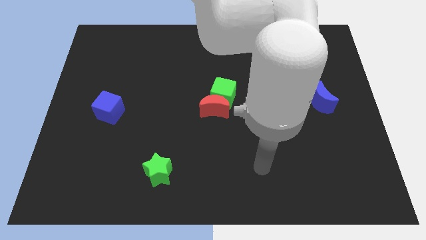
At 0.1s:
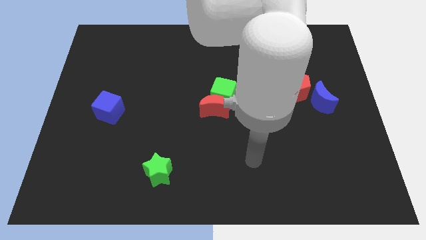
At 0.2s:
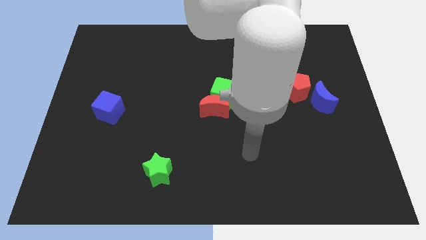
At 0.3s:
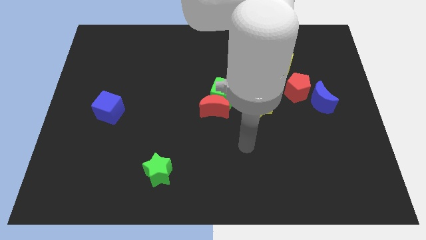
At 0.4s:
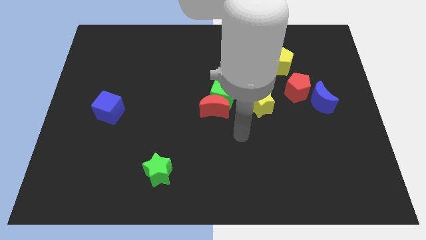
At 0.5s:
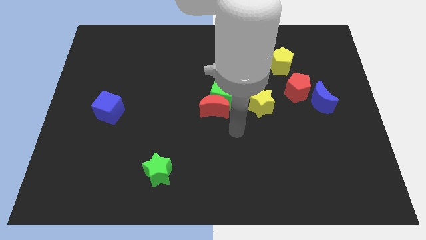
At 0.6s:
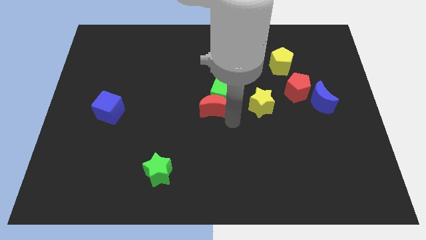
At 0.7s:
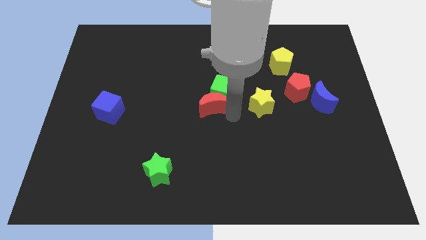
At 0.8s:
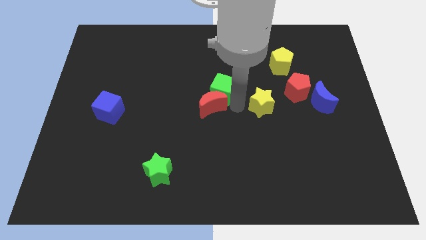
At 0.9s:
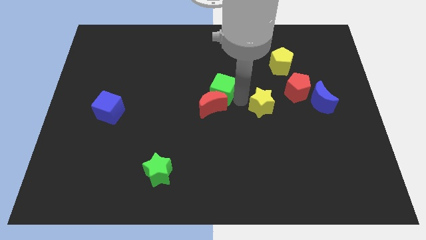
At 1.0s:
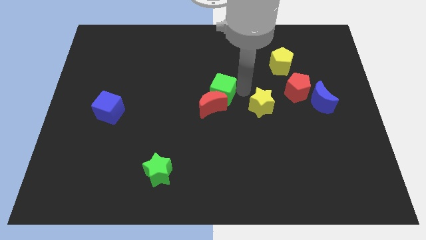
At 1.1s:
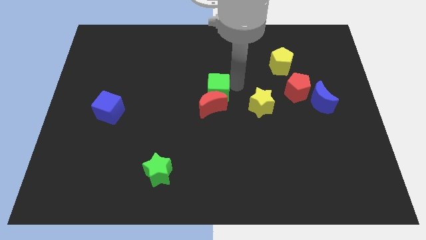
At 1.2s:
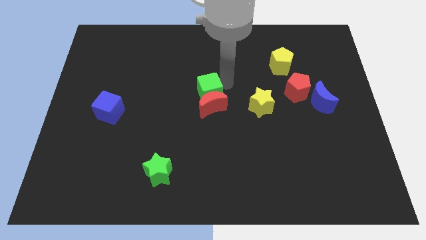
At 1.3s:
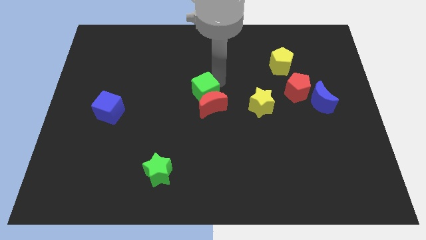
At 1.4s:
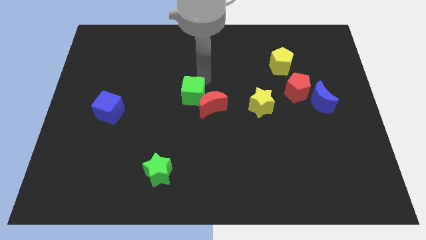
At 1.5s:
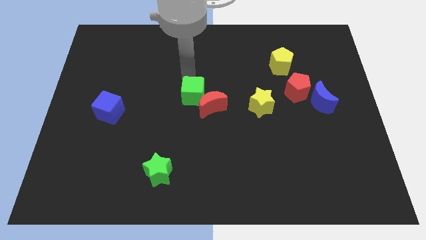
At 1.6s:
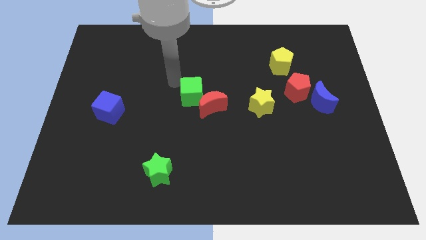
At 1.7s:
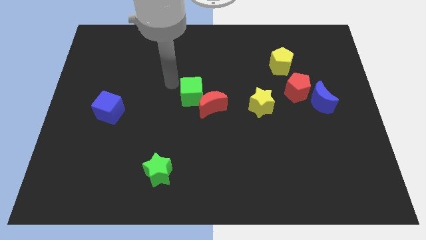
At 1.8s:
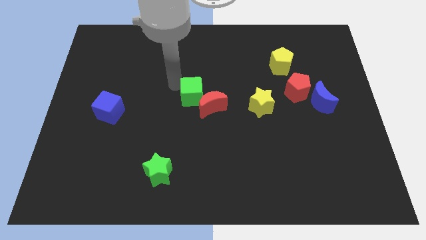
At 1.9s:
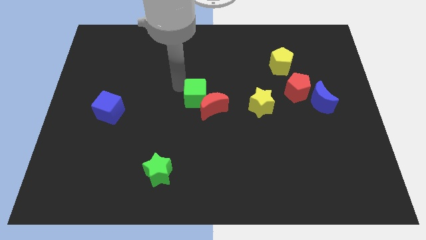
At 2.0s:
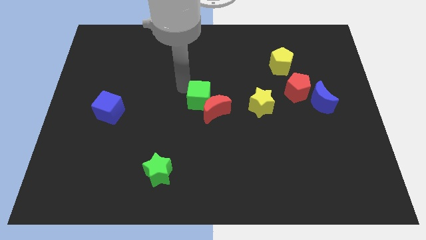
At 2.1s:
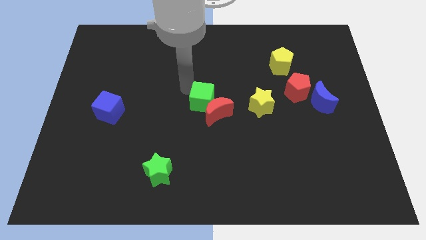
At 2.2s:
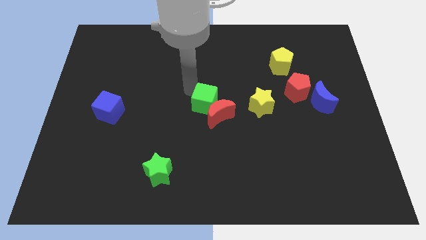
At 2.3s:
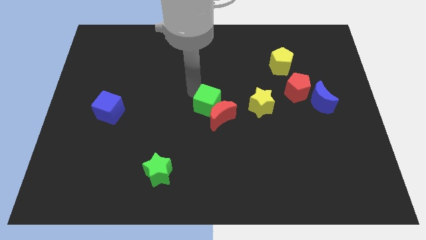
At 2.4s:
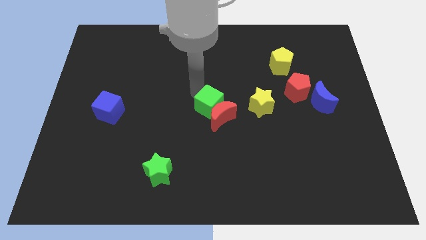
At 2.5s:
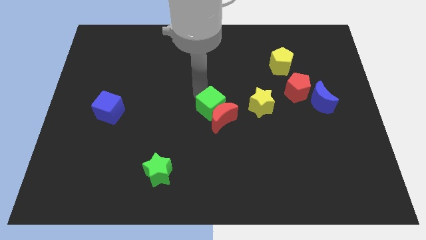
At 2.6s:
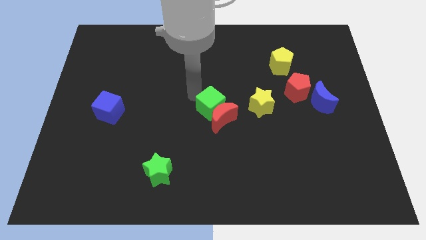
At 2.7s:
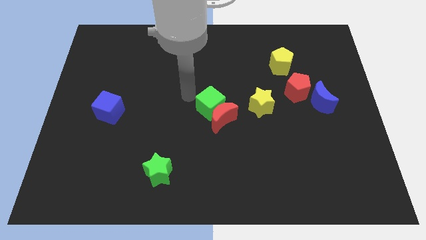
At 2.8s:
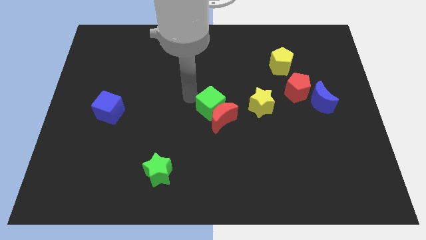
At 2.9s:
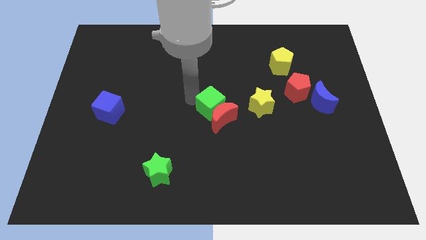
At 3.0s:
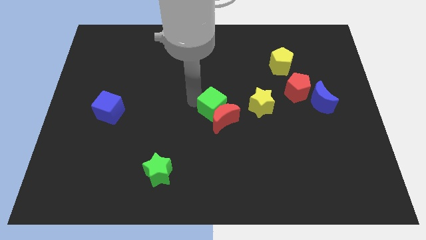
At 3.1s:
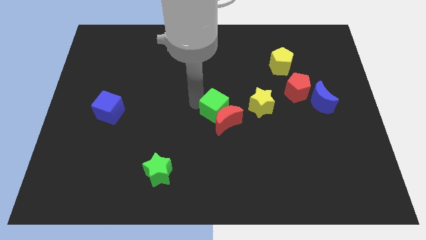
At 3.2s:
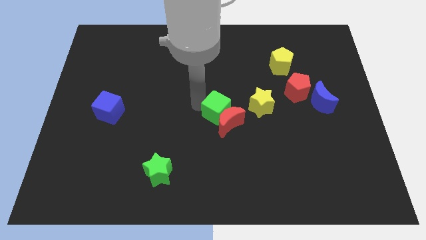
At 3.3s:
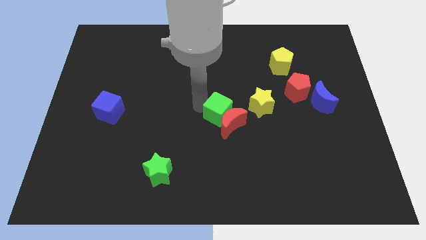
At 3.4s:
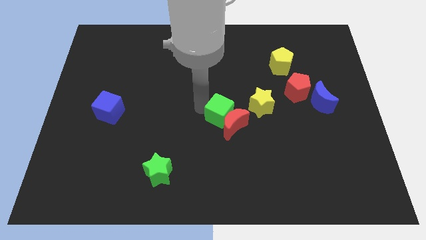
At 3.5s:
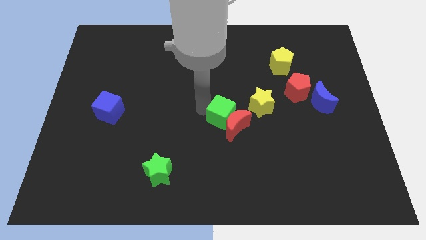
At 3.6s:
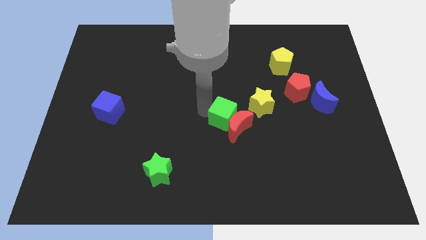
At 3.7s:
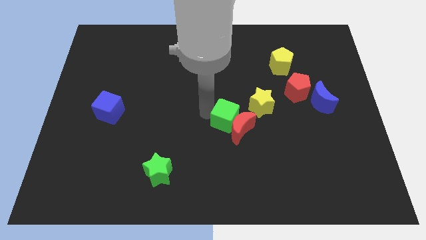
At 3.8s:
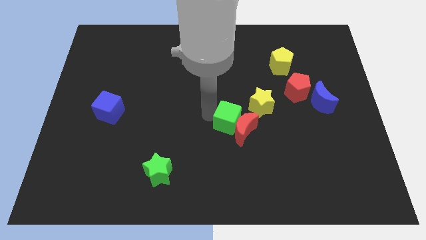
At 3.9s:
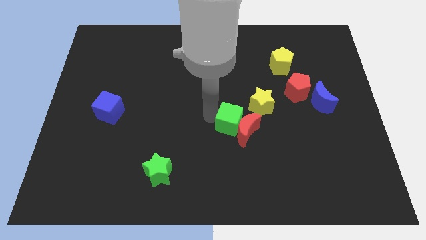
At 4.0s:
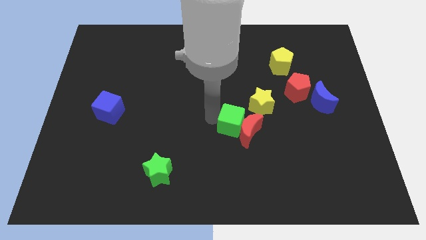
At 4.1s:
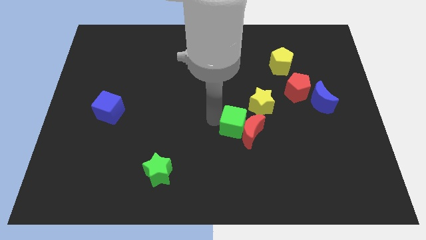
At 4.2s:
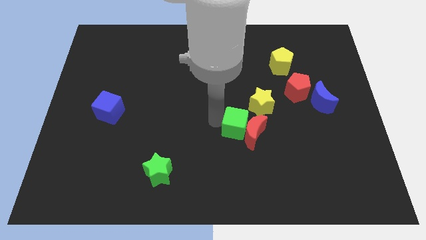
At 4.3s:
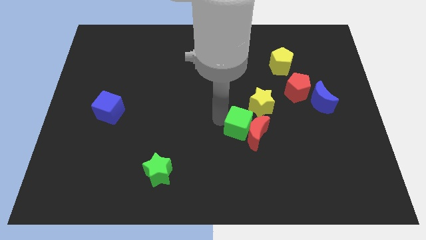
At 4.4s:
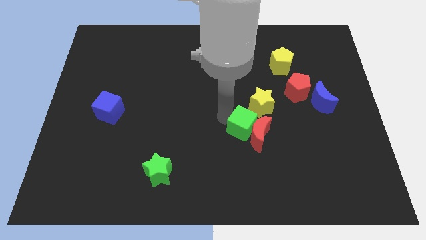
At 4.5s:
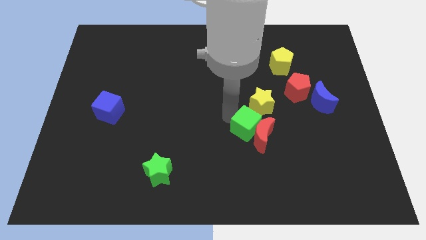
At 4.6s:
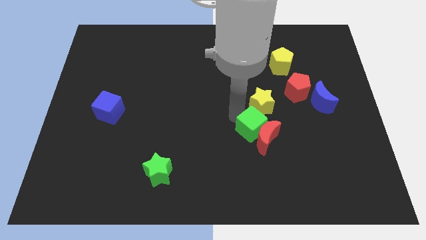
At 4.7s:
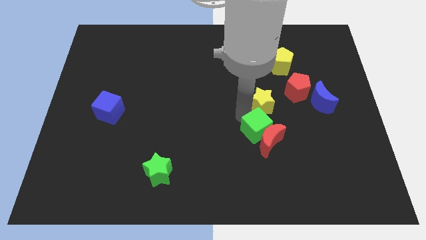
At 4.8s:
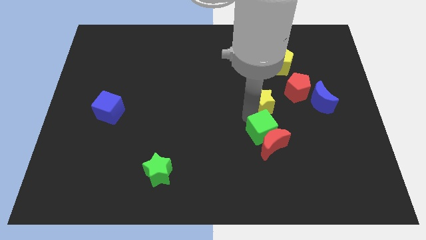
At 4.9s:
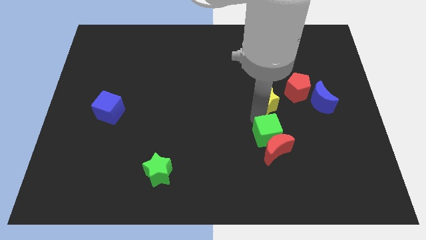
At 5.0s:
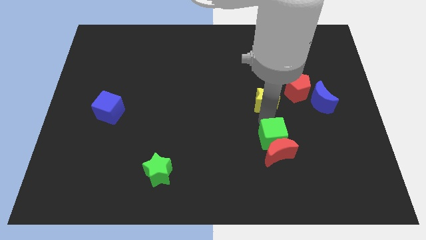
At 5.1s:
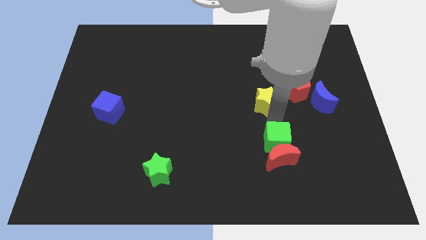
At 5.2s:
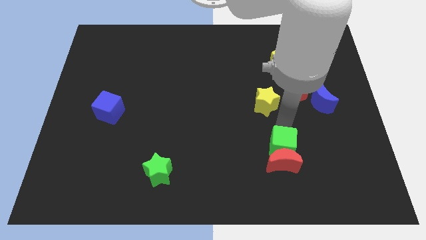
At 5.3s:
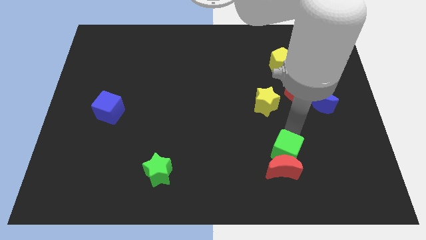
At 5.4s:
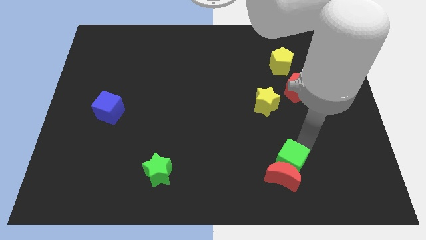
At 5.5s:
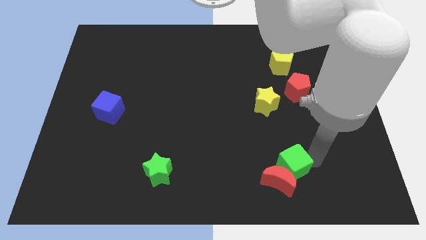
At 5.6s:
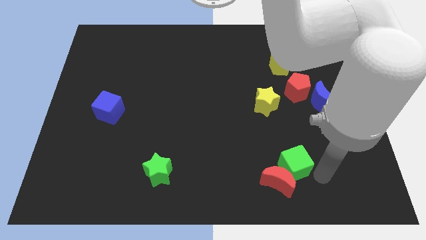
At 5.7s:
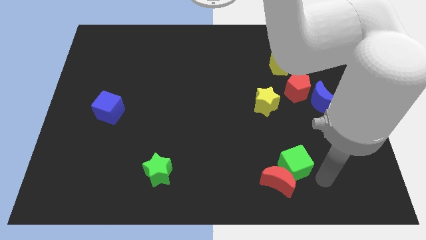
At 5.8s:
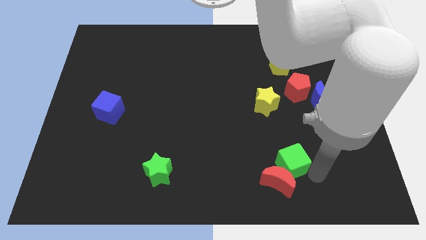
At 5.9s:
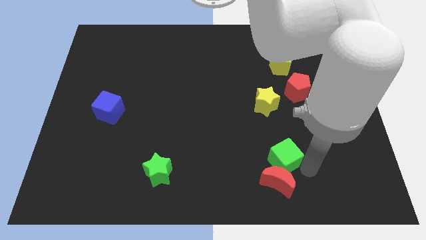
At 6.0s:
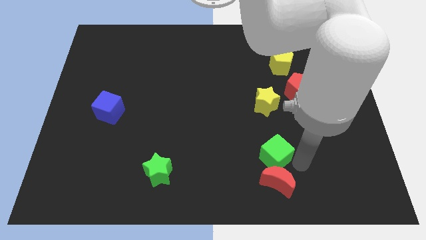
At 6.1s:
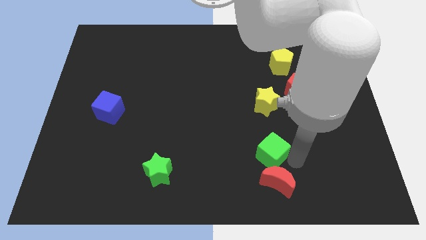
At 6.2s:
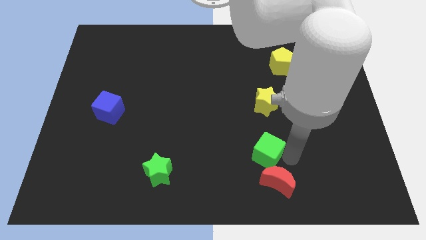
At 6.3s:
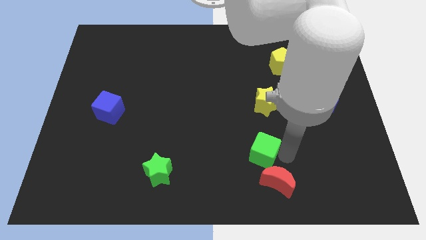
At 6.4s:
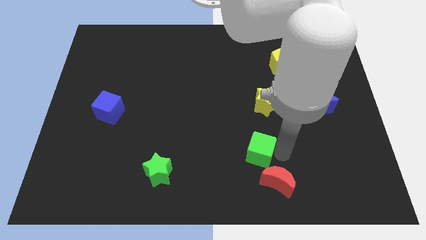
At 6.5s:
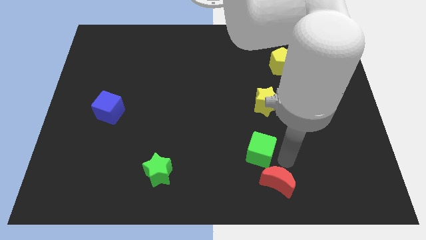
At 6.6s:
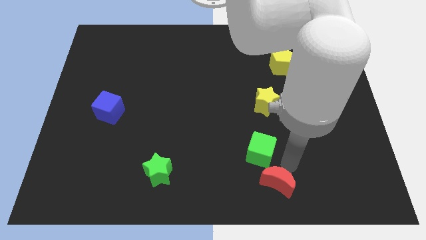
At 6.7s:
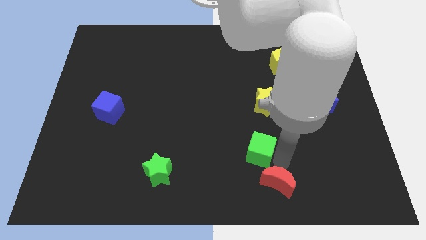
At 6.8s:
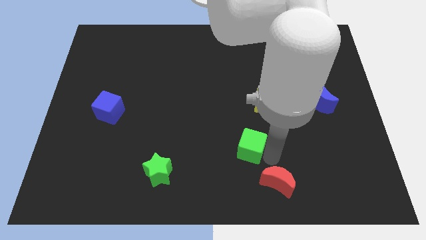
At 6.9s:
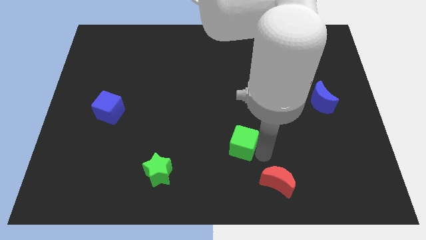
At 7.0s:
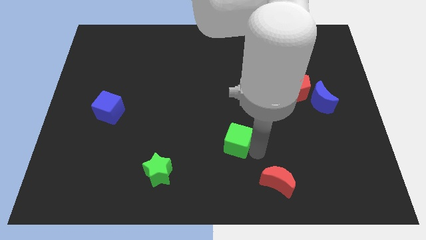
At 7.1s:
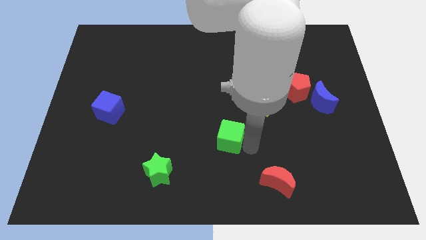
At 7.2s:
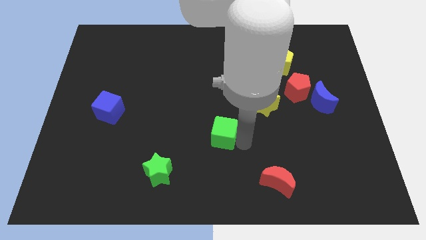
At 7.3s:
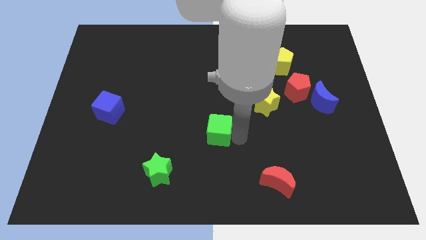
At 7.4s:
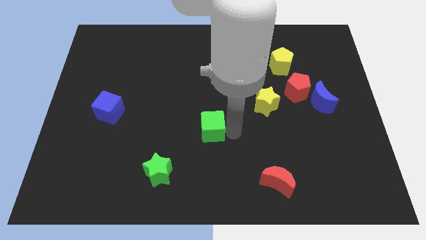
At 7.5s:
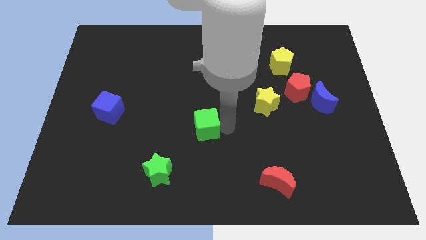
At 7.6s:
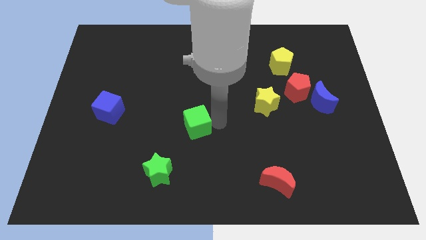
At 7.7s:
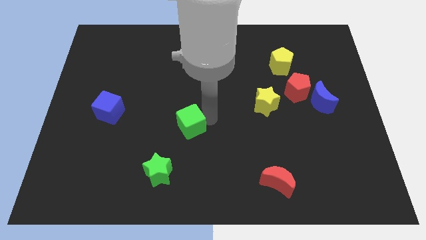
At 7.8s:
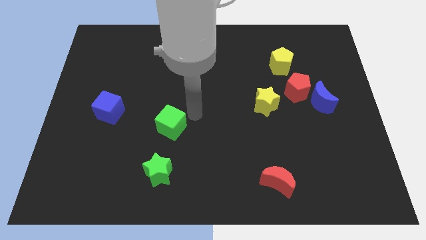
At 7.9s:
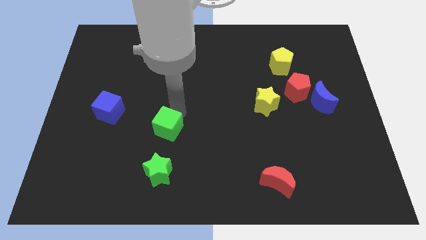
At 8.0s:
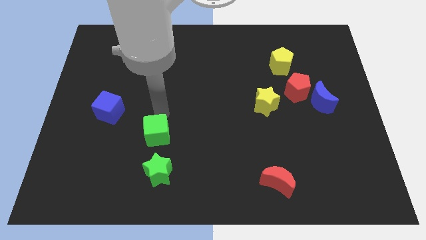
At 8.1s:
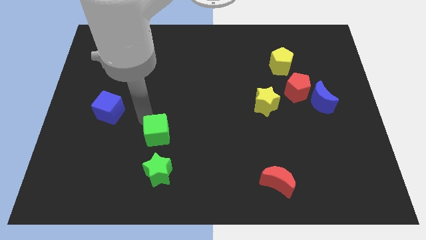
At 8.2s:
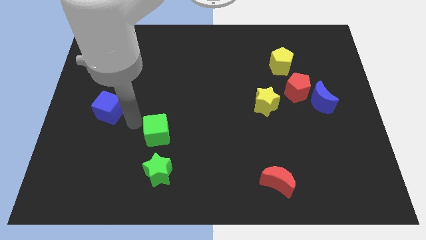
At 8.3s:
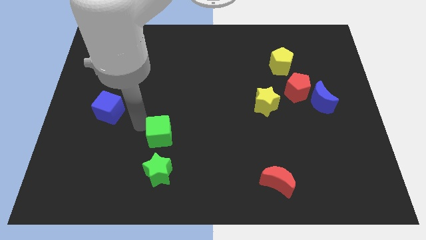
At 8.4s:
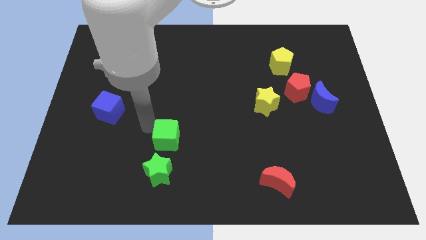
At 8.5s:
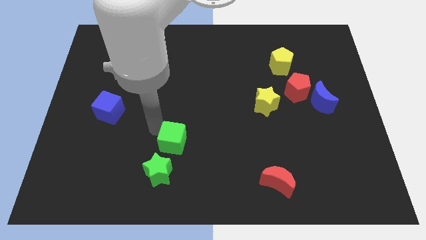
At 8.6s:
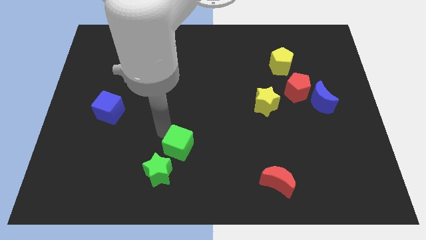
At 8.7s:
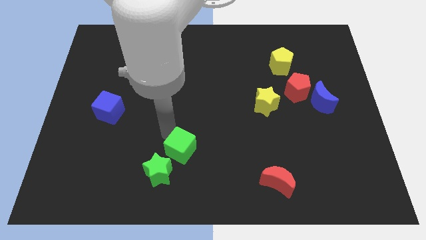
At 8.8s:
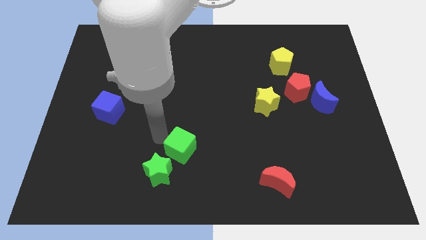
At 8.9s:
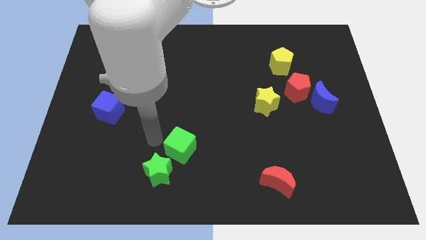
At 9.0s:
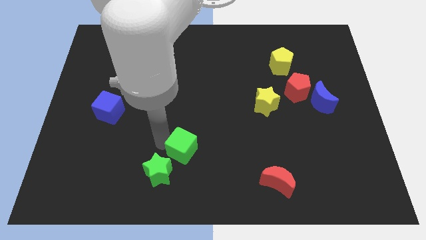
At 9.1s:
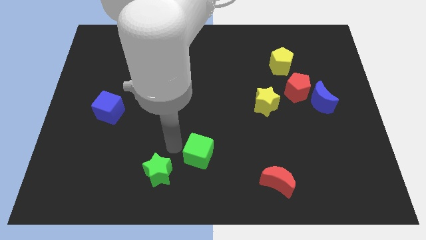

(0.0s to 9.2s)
slide the green cube to the bottom
